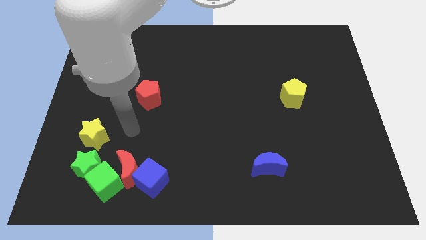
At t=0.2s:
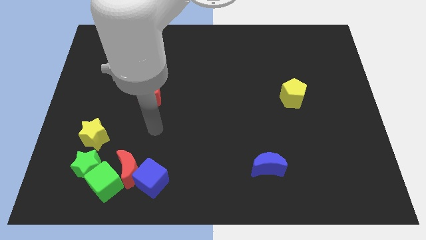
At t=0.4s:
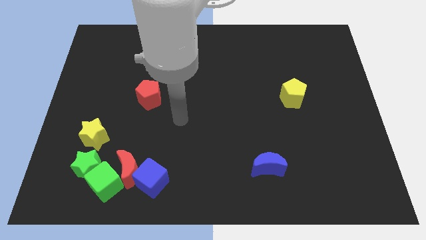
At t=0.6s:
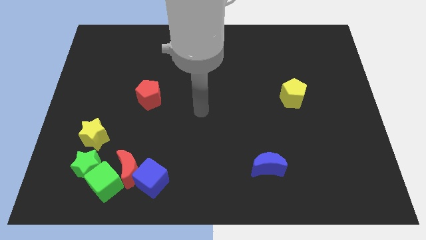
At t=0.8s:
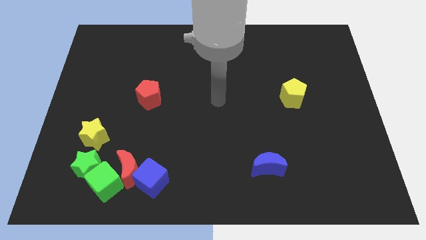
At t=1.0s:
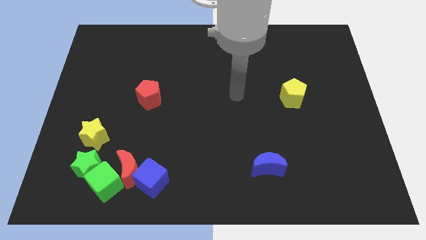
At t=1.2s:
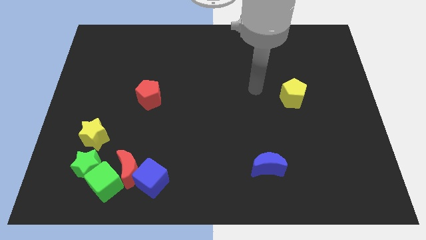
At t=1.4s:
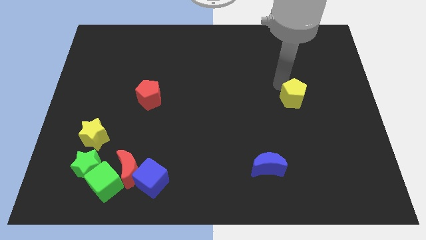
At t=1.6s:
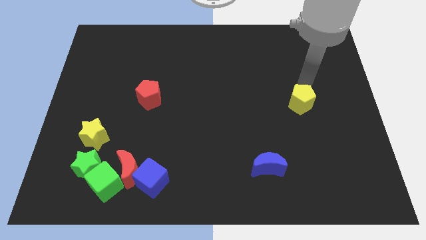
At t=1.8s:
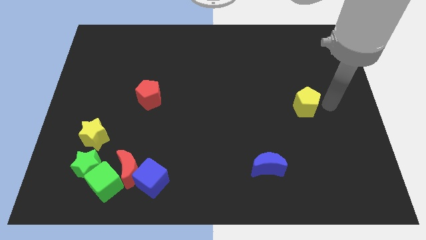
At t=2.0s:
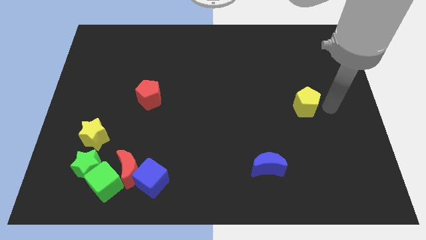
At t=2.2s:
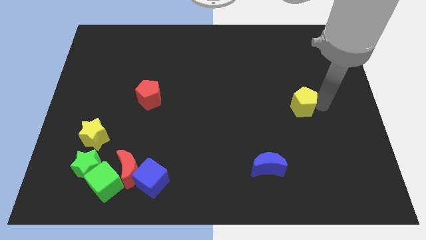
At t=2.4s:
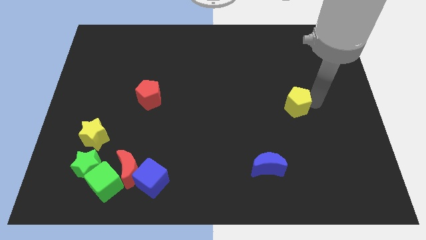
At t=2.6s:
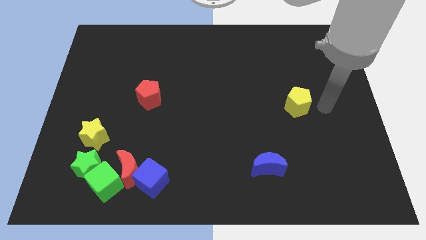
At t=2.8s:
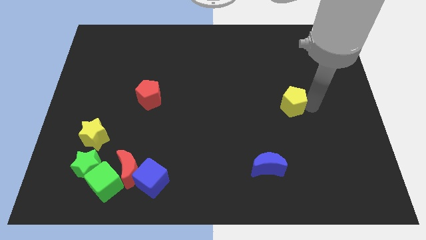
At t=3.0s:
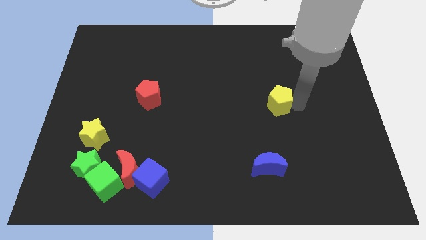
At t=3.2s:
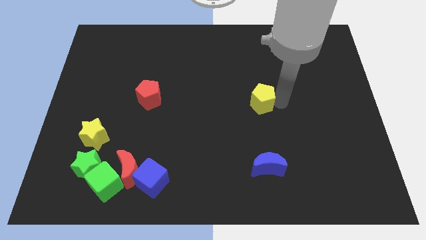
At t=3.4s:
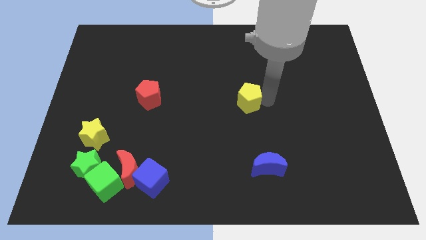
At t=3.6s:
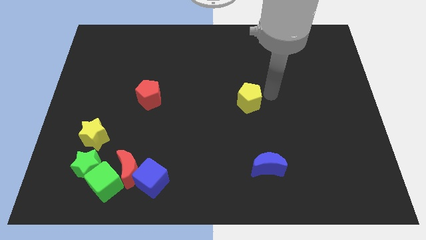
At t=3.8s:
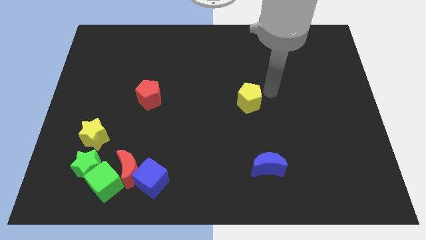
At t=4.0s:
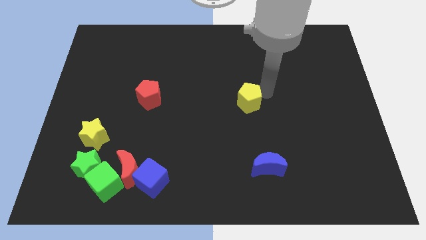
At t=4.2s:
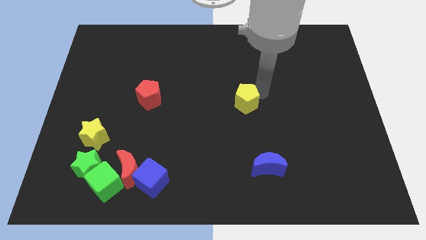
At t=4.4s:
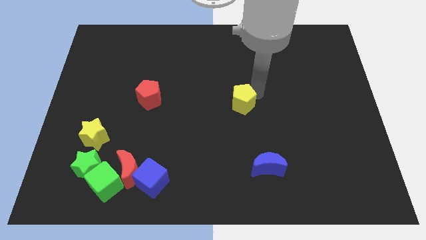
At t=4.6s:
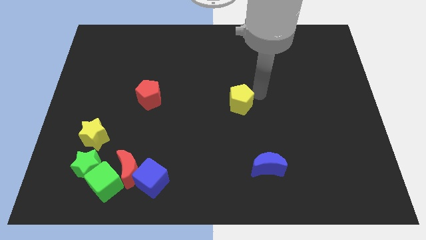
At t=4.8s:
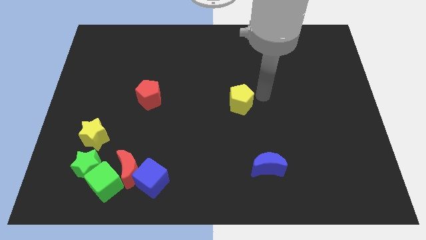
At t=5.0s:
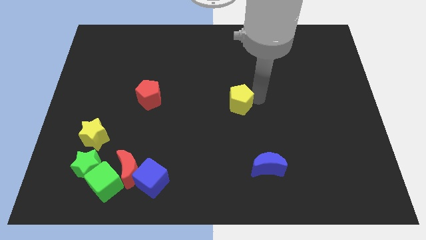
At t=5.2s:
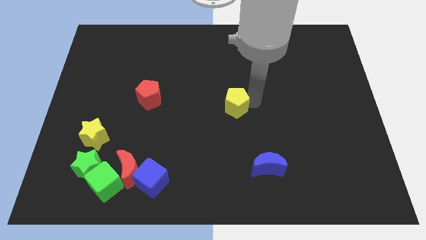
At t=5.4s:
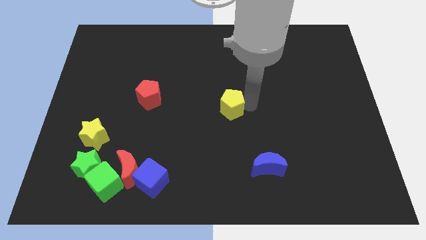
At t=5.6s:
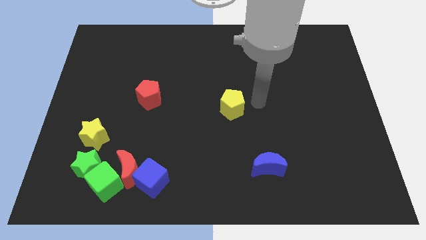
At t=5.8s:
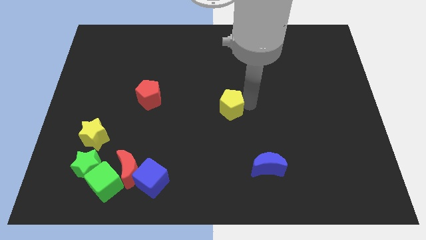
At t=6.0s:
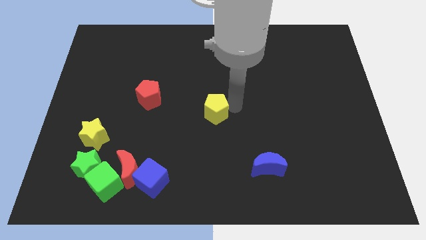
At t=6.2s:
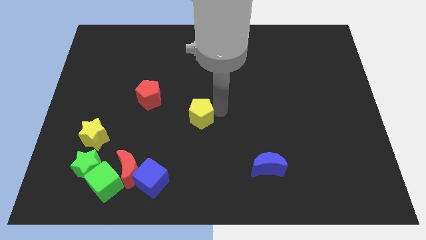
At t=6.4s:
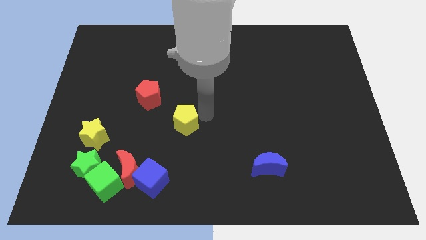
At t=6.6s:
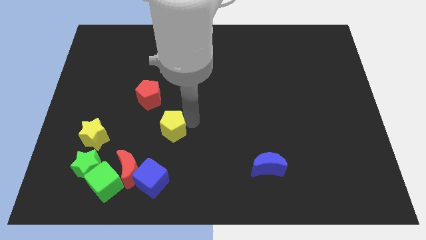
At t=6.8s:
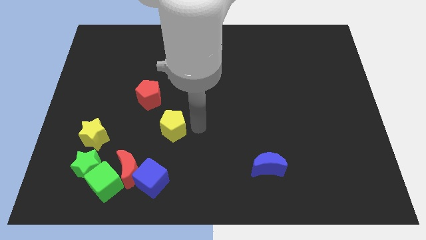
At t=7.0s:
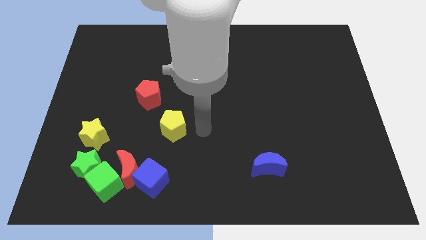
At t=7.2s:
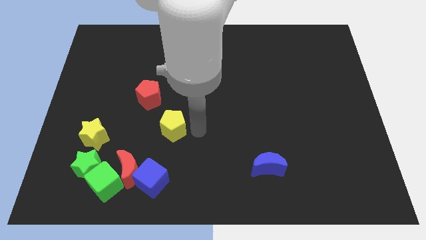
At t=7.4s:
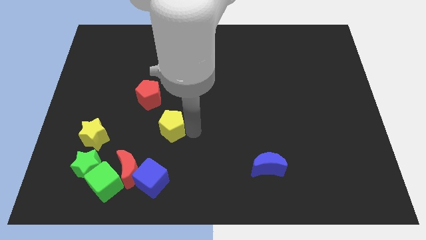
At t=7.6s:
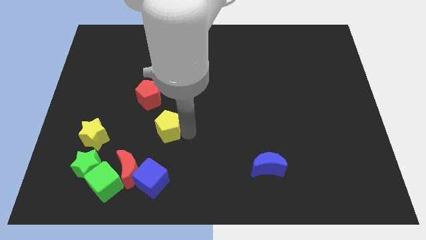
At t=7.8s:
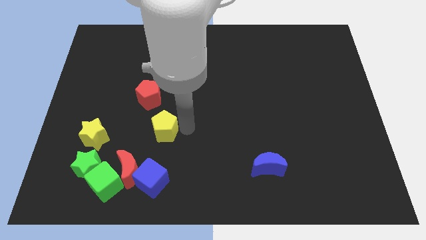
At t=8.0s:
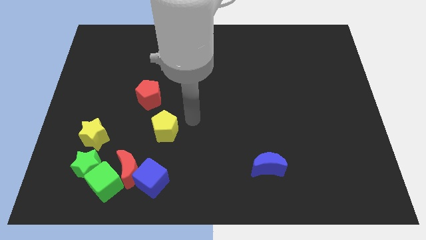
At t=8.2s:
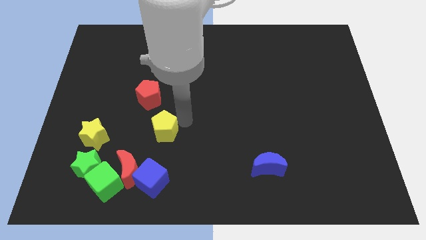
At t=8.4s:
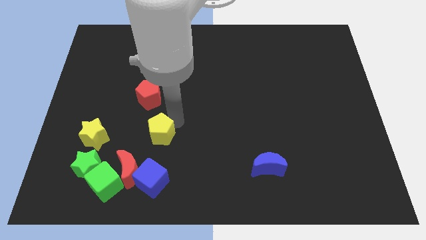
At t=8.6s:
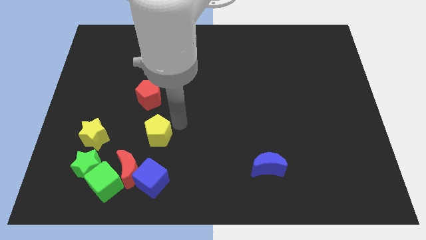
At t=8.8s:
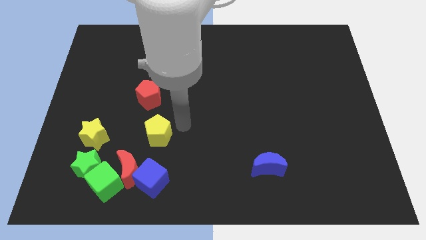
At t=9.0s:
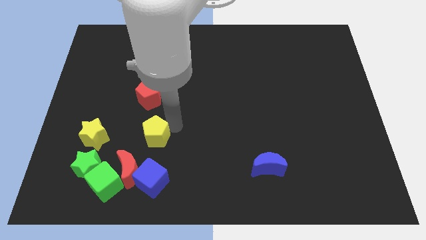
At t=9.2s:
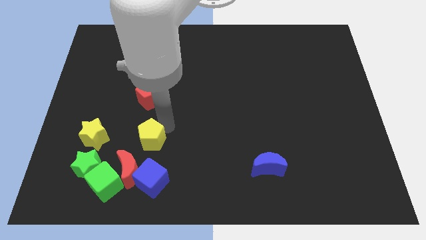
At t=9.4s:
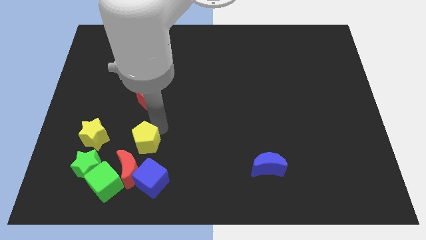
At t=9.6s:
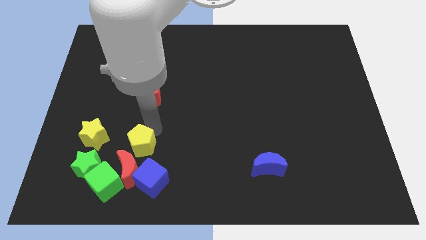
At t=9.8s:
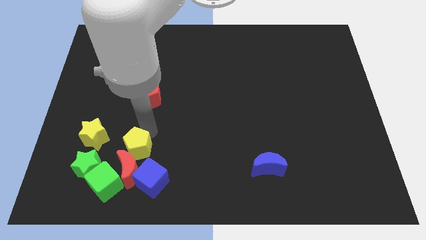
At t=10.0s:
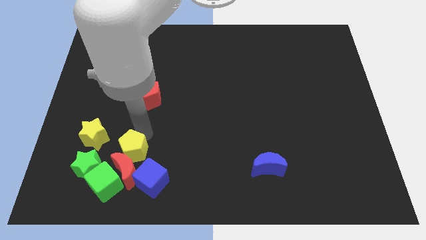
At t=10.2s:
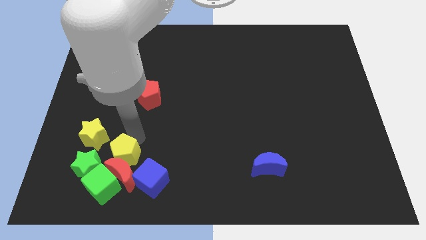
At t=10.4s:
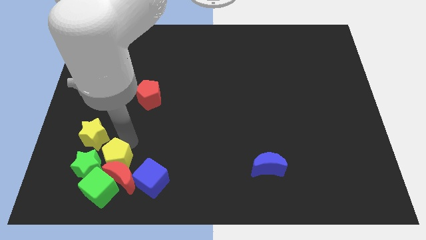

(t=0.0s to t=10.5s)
push the yellow pentagon towards the green star

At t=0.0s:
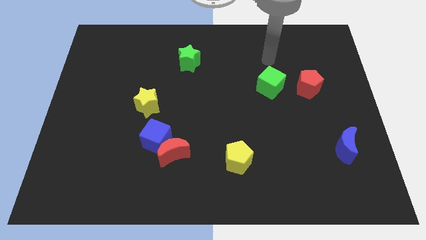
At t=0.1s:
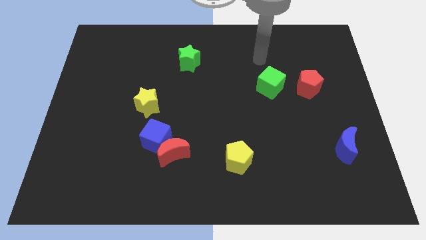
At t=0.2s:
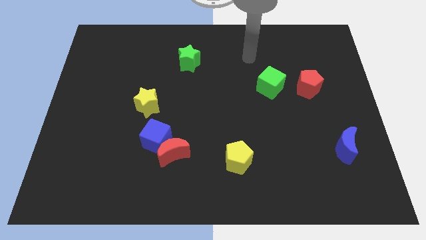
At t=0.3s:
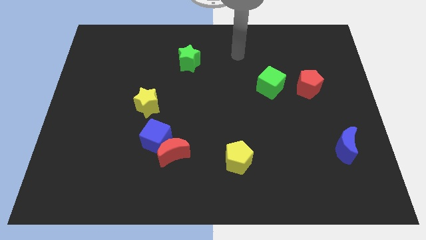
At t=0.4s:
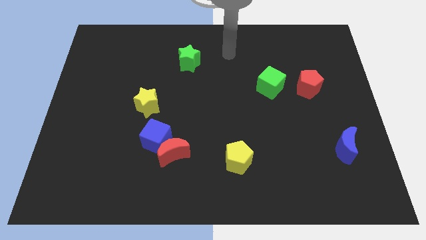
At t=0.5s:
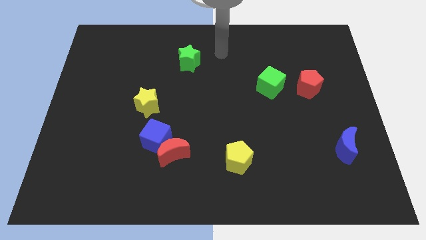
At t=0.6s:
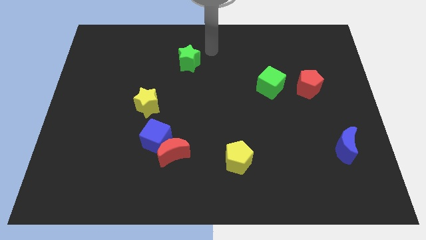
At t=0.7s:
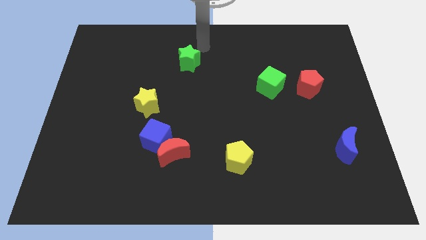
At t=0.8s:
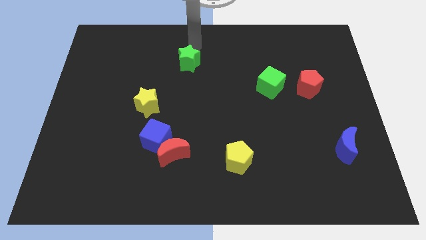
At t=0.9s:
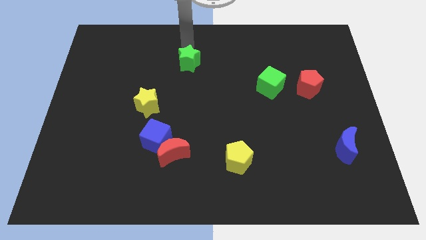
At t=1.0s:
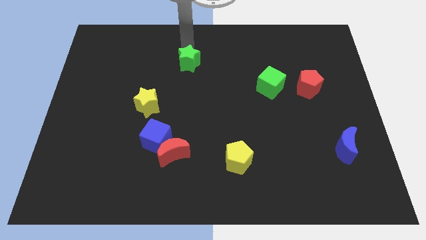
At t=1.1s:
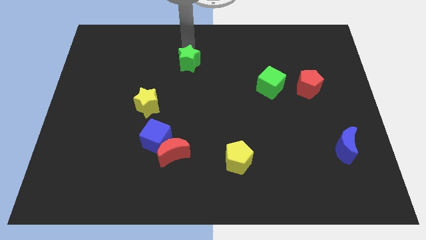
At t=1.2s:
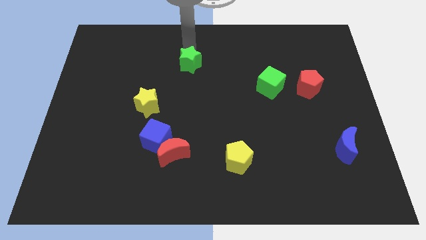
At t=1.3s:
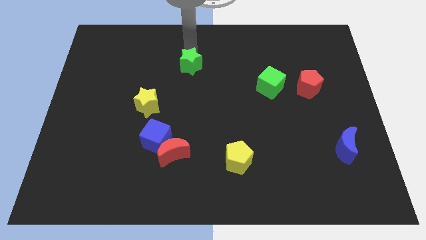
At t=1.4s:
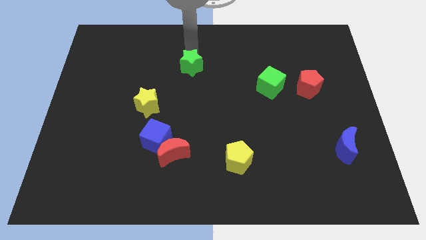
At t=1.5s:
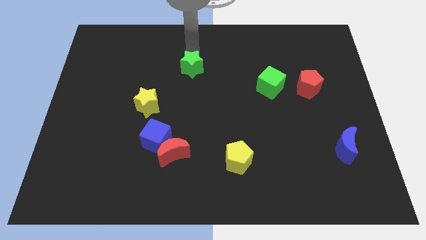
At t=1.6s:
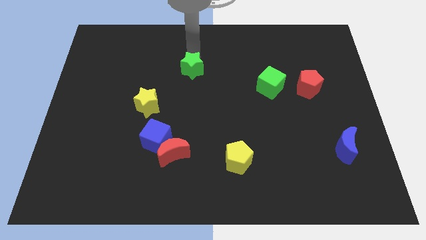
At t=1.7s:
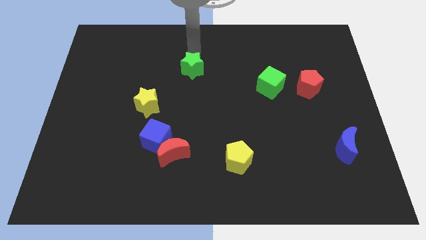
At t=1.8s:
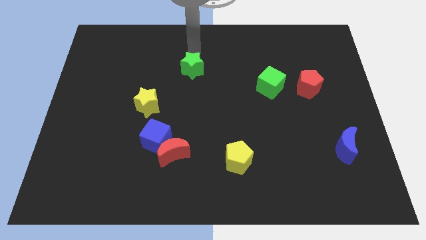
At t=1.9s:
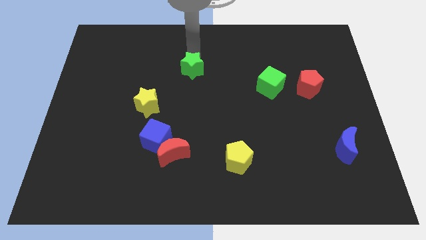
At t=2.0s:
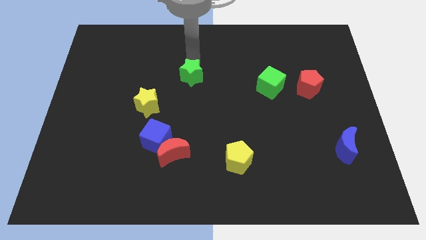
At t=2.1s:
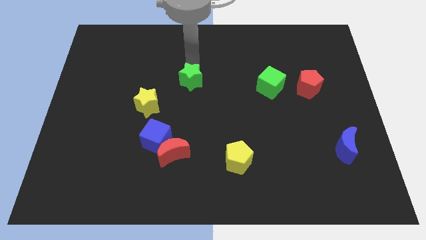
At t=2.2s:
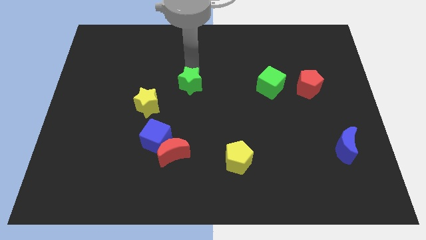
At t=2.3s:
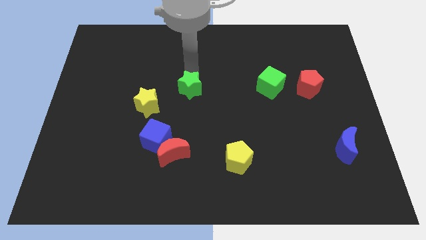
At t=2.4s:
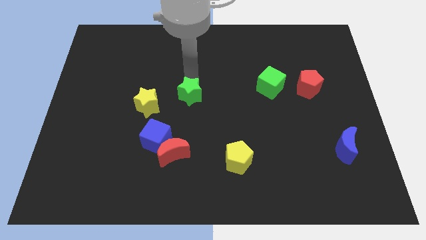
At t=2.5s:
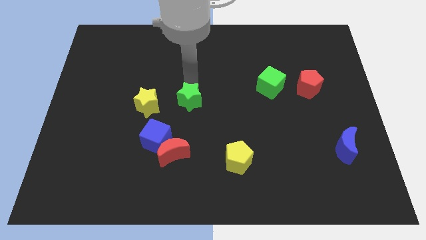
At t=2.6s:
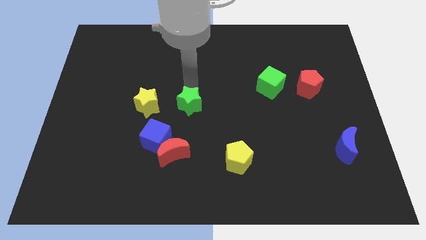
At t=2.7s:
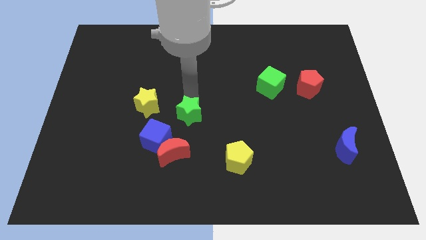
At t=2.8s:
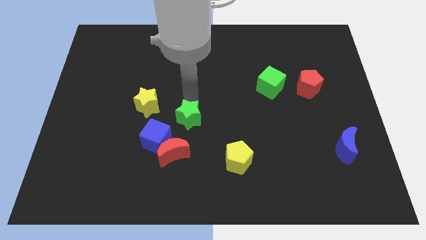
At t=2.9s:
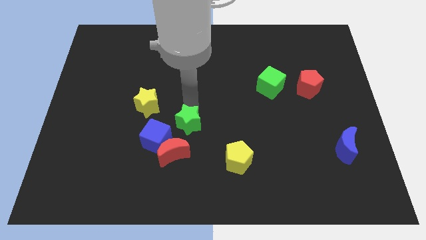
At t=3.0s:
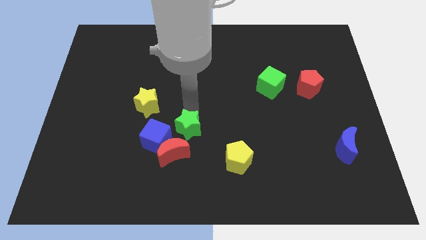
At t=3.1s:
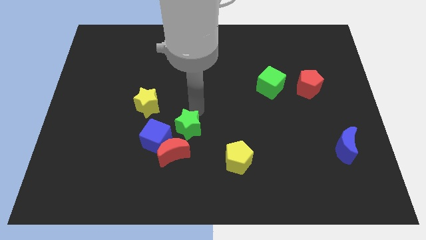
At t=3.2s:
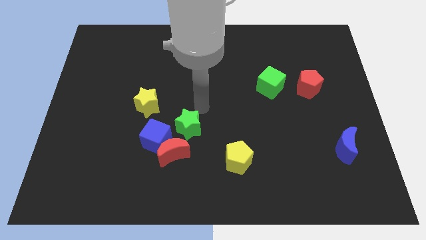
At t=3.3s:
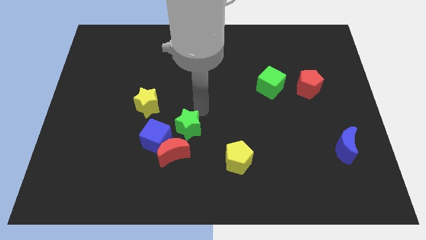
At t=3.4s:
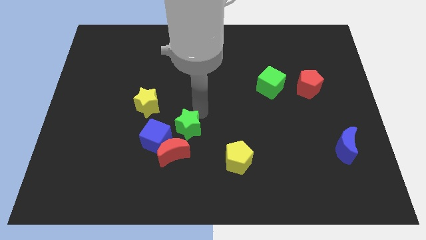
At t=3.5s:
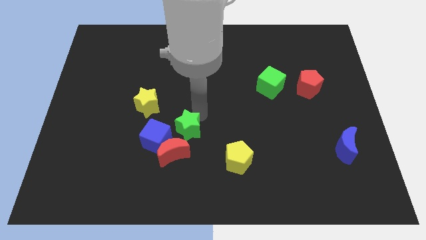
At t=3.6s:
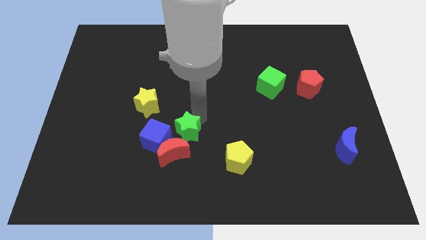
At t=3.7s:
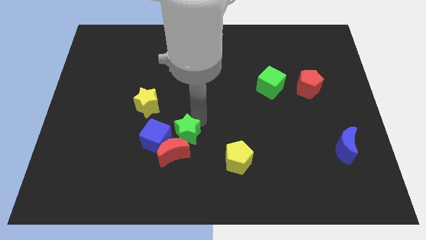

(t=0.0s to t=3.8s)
put the green star to the red moon
